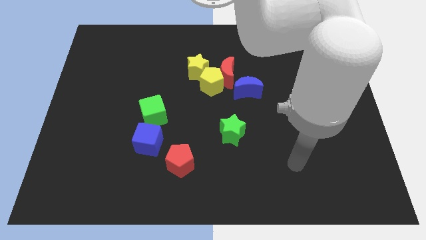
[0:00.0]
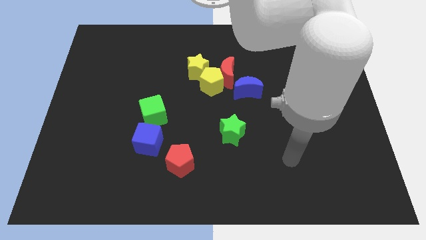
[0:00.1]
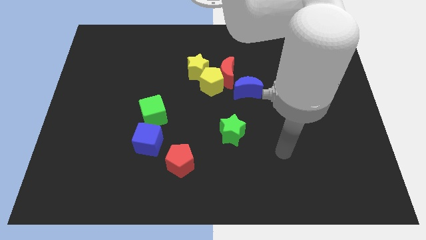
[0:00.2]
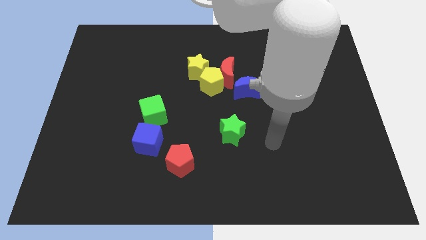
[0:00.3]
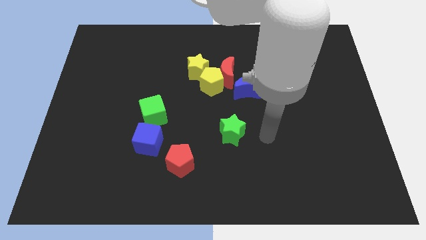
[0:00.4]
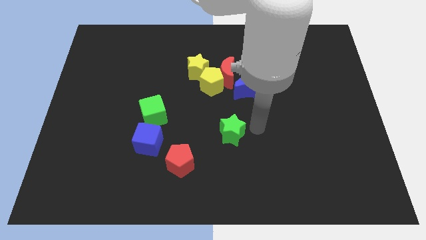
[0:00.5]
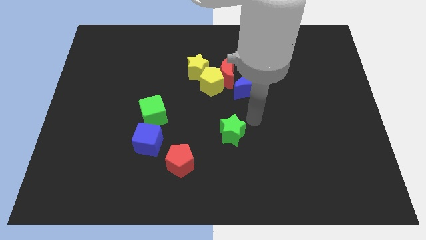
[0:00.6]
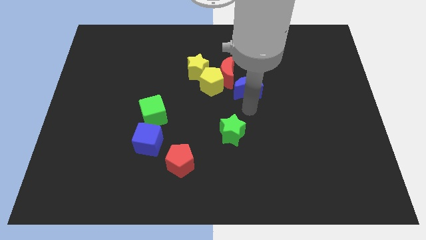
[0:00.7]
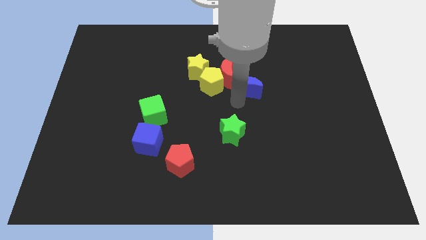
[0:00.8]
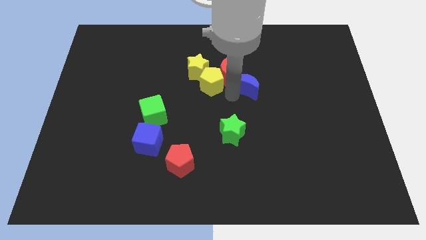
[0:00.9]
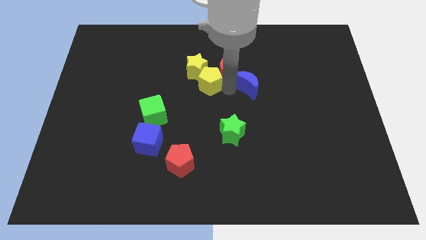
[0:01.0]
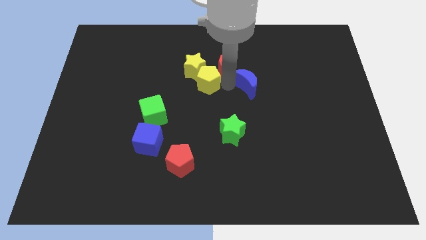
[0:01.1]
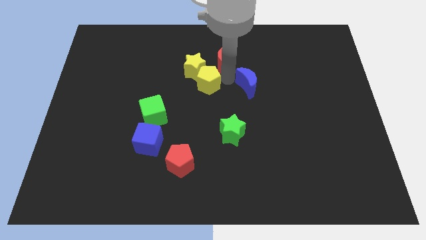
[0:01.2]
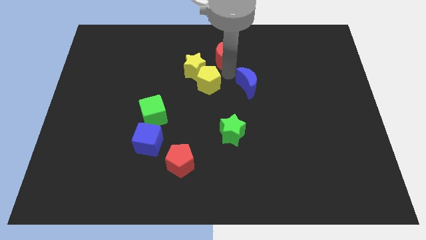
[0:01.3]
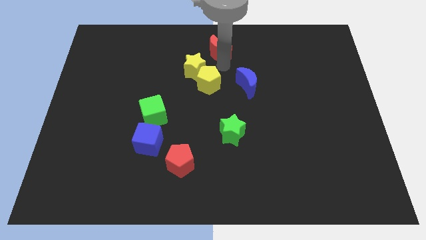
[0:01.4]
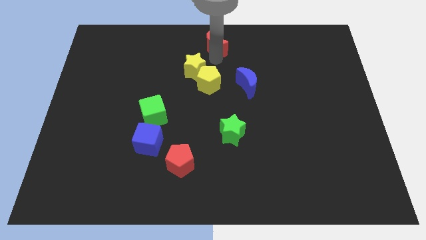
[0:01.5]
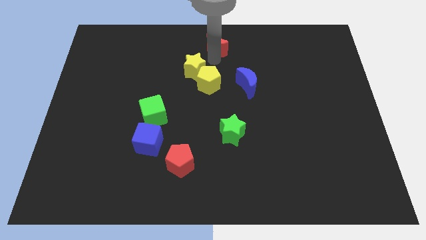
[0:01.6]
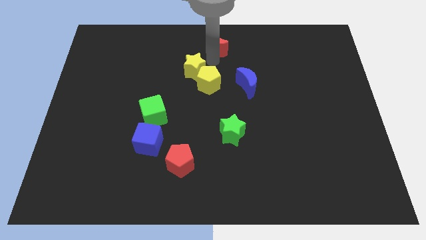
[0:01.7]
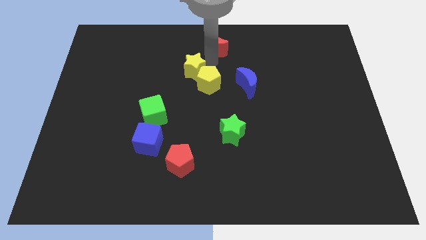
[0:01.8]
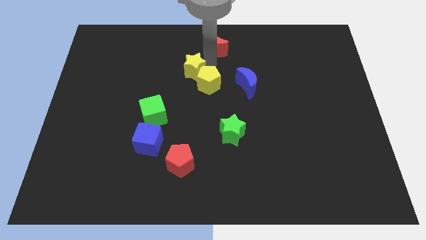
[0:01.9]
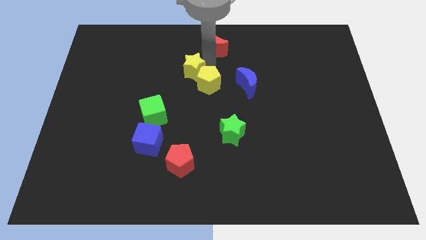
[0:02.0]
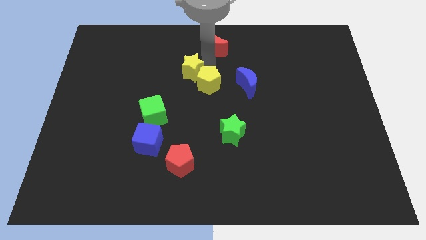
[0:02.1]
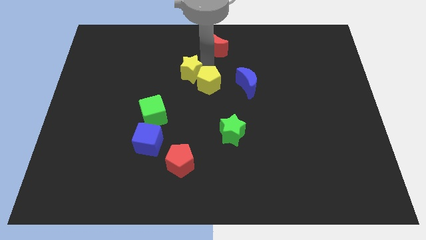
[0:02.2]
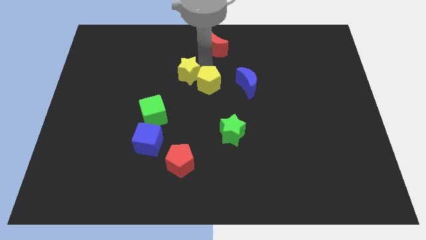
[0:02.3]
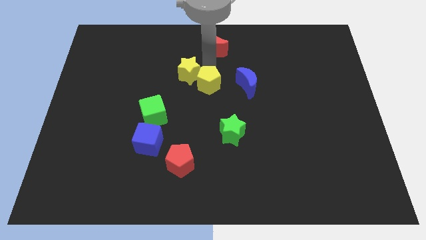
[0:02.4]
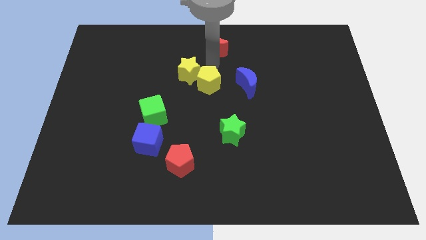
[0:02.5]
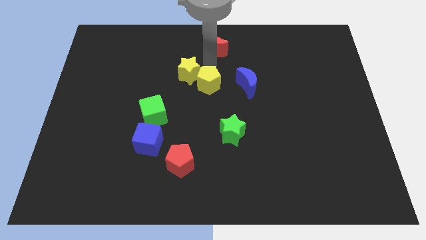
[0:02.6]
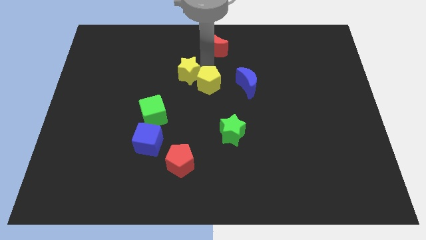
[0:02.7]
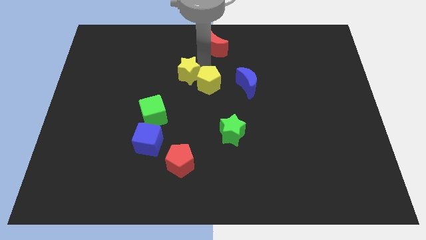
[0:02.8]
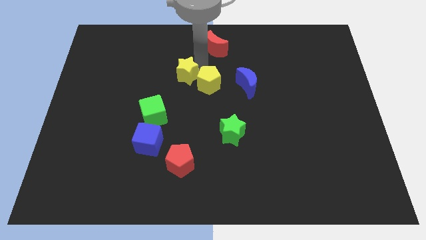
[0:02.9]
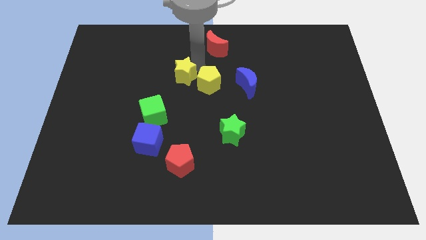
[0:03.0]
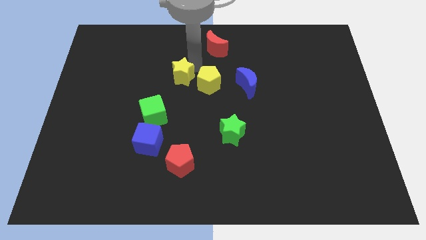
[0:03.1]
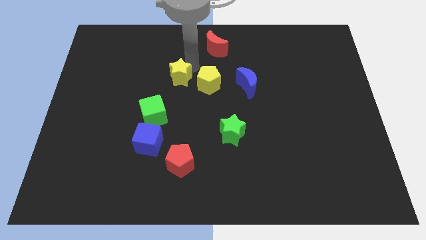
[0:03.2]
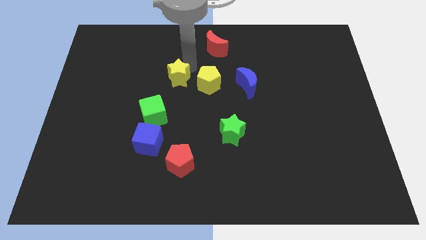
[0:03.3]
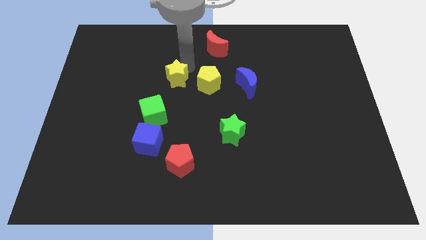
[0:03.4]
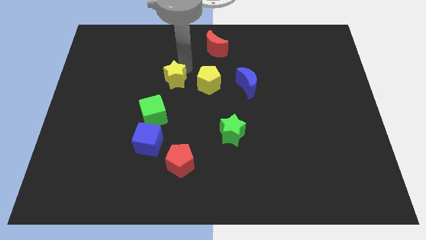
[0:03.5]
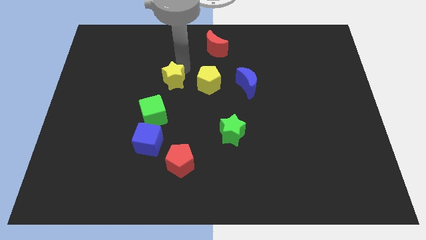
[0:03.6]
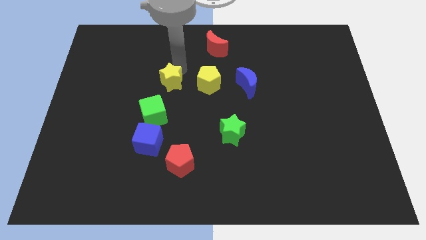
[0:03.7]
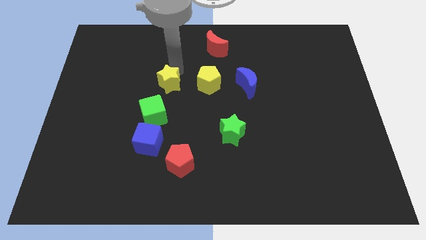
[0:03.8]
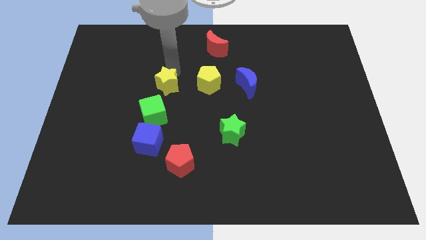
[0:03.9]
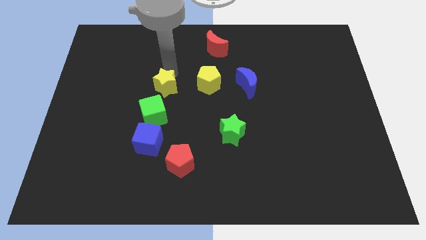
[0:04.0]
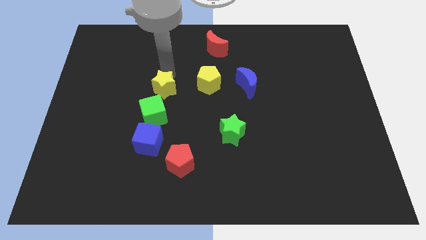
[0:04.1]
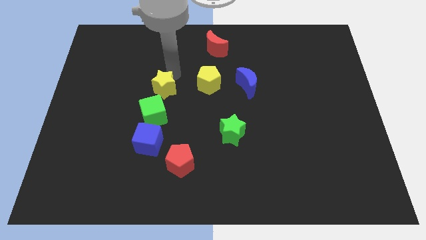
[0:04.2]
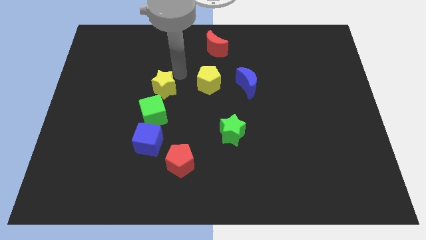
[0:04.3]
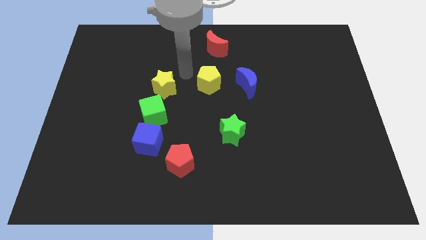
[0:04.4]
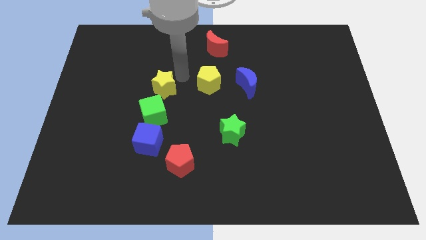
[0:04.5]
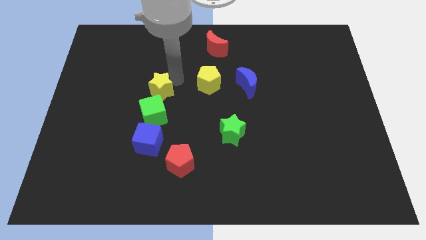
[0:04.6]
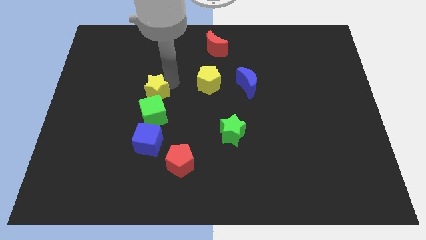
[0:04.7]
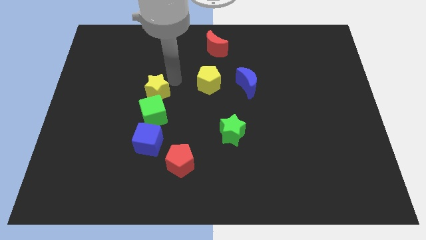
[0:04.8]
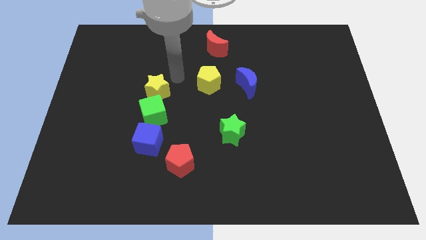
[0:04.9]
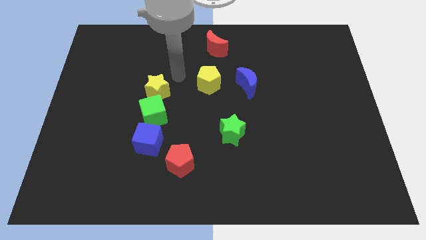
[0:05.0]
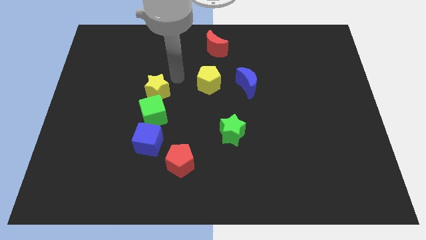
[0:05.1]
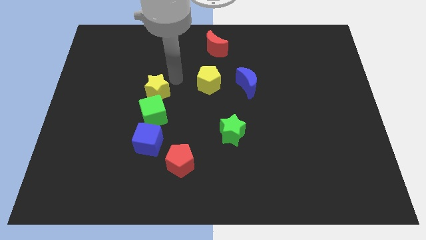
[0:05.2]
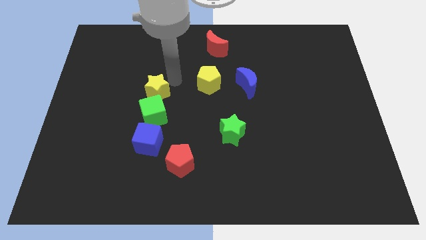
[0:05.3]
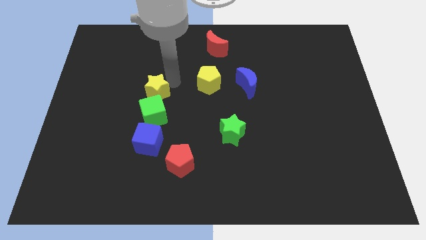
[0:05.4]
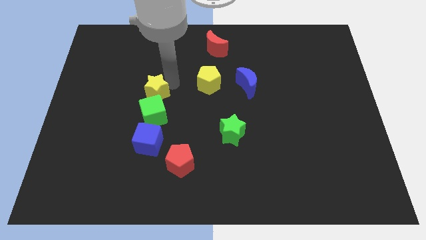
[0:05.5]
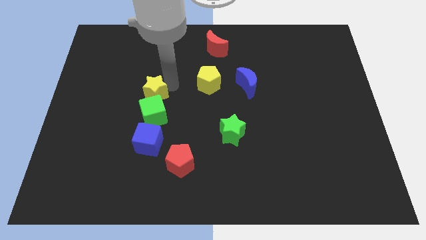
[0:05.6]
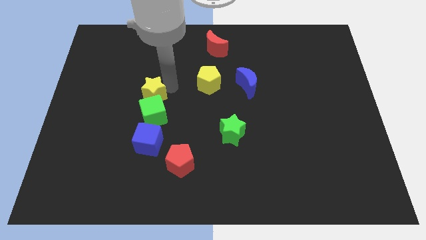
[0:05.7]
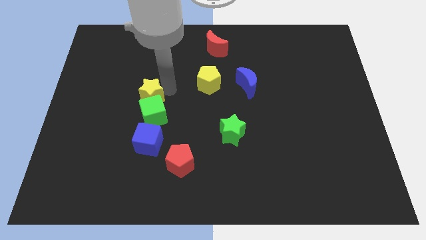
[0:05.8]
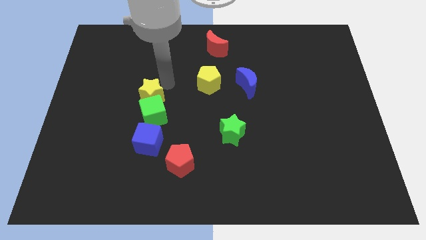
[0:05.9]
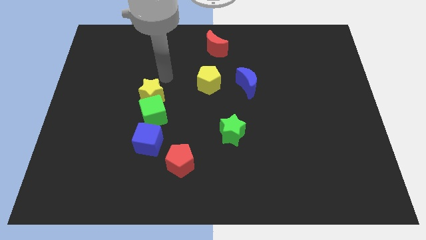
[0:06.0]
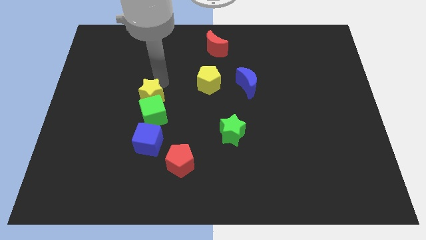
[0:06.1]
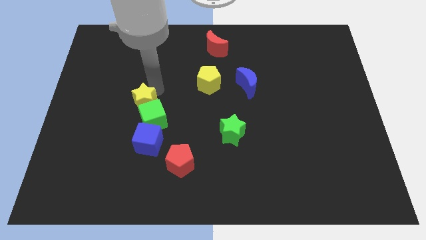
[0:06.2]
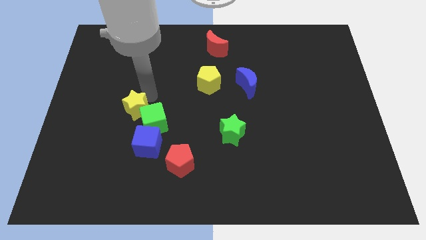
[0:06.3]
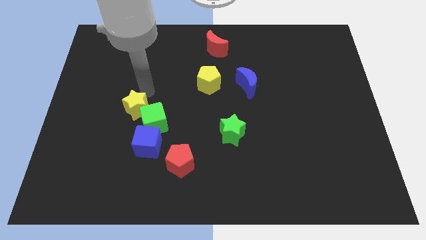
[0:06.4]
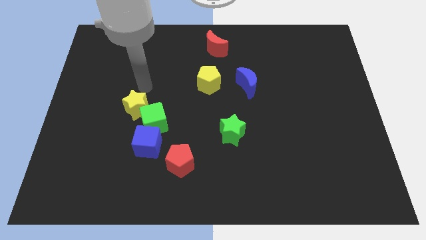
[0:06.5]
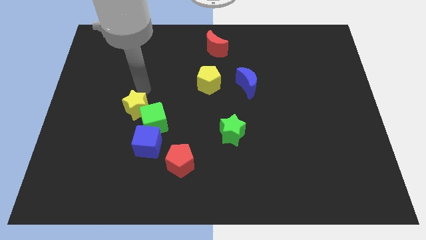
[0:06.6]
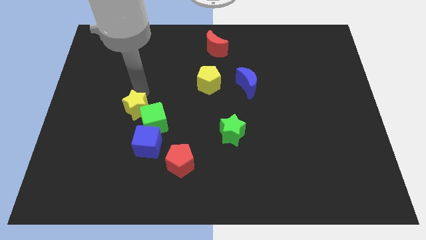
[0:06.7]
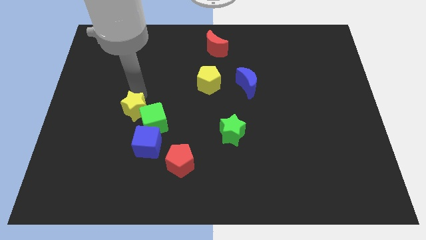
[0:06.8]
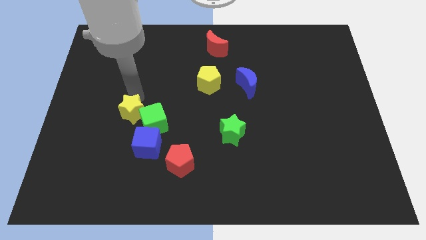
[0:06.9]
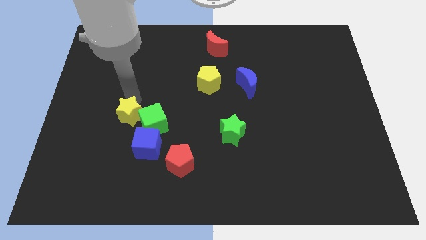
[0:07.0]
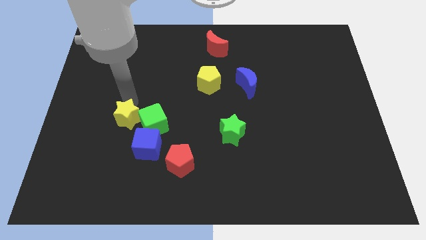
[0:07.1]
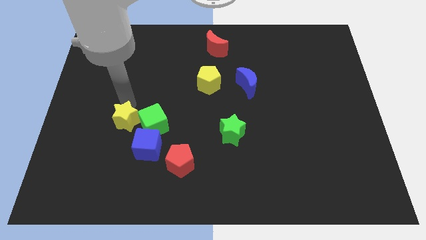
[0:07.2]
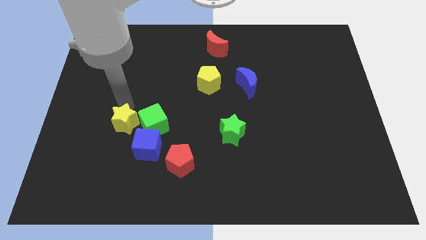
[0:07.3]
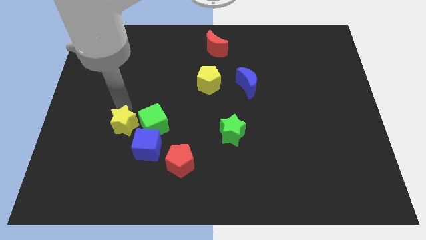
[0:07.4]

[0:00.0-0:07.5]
put the yellow star to the bottom left of the green cube
